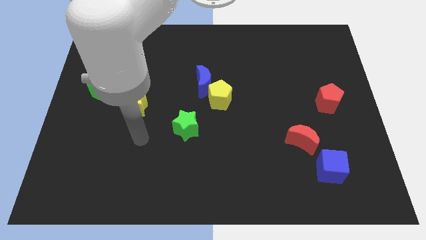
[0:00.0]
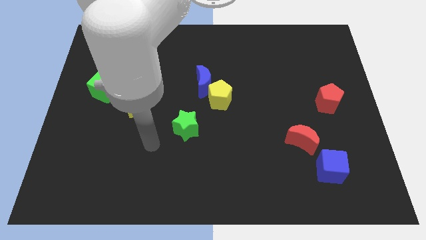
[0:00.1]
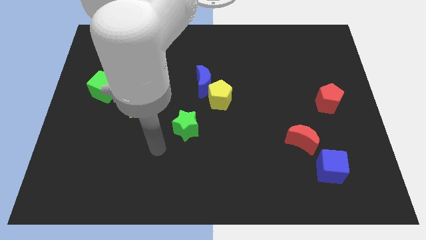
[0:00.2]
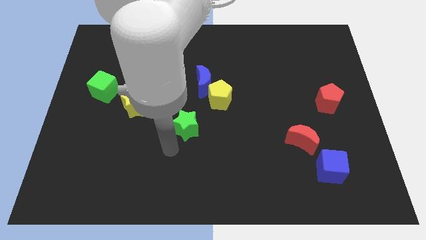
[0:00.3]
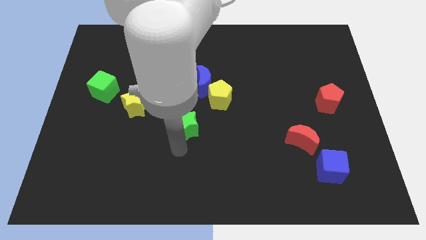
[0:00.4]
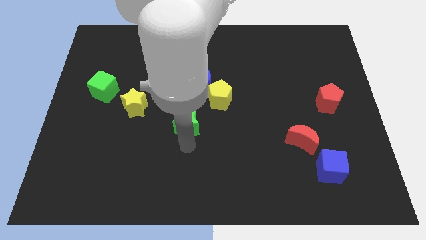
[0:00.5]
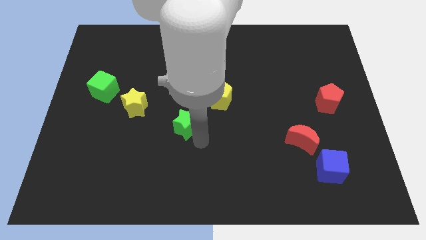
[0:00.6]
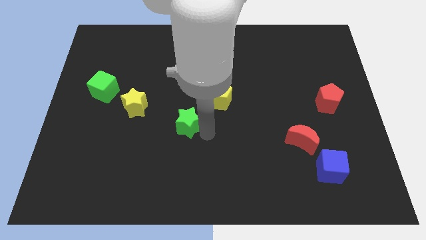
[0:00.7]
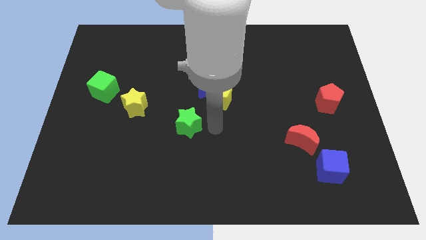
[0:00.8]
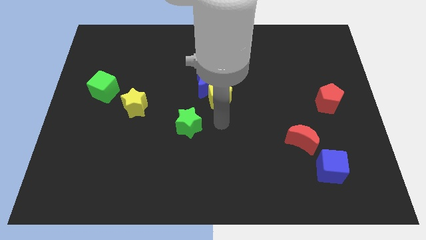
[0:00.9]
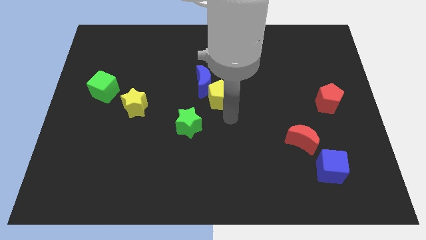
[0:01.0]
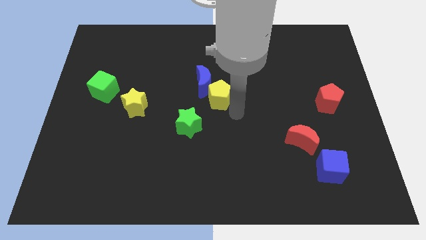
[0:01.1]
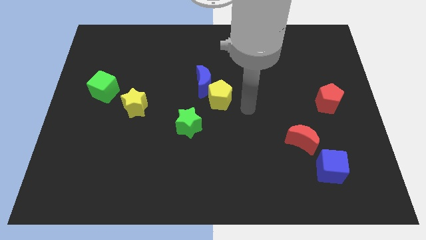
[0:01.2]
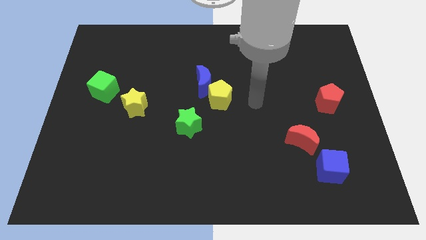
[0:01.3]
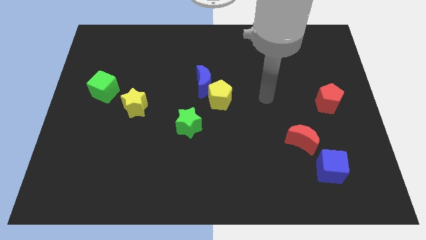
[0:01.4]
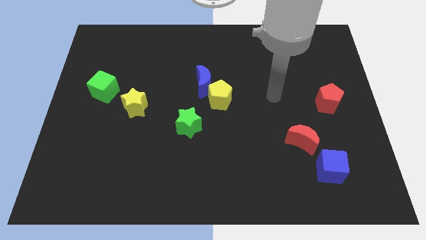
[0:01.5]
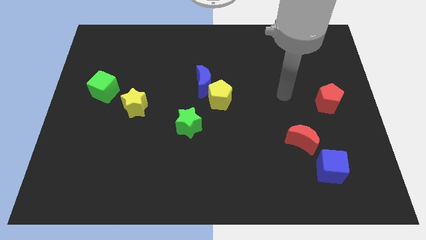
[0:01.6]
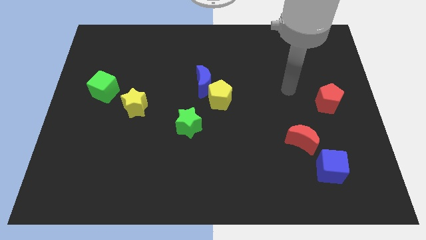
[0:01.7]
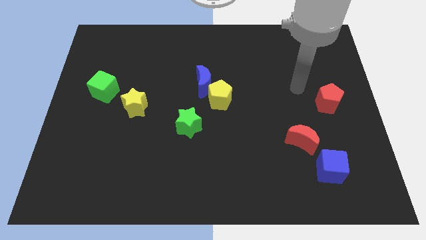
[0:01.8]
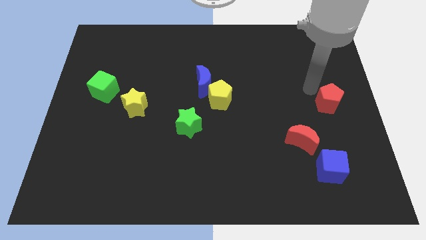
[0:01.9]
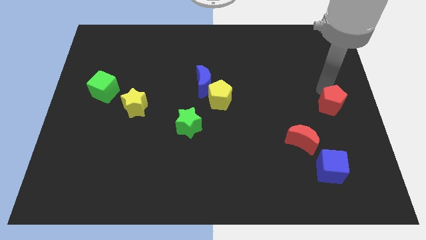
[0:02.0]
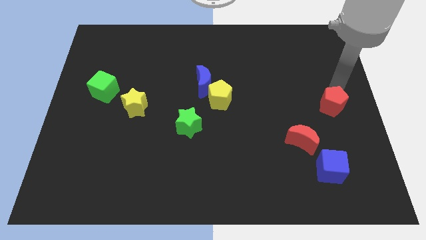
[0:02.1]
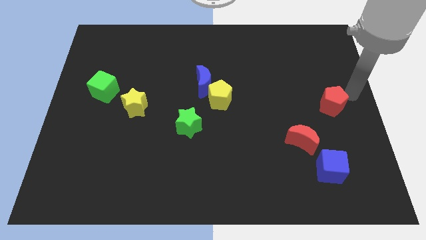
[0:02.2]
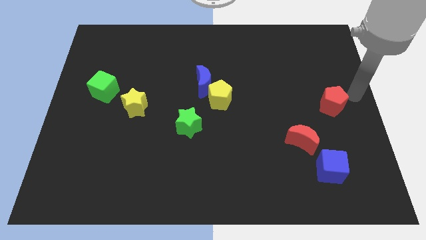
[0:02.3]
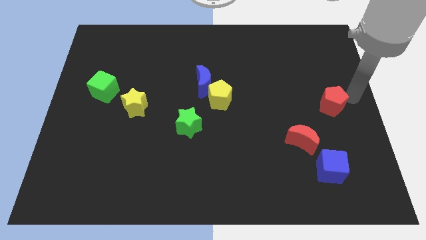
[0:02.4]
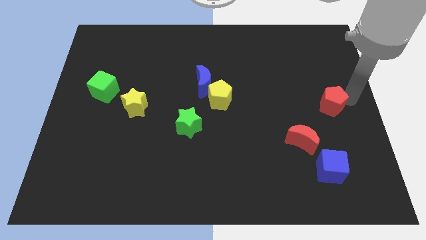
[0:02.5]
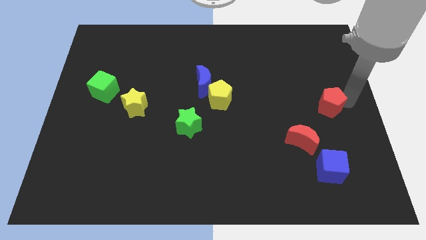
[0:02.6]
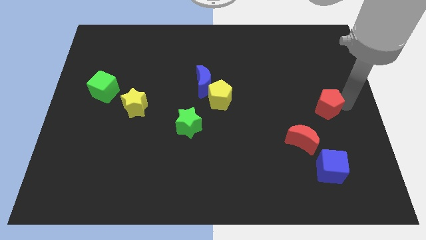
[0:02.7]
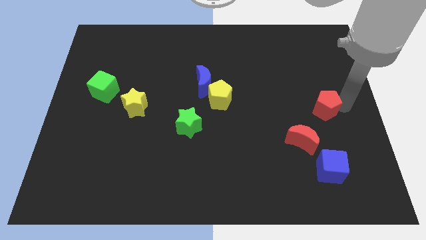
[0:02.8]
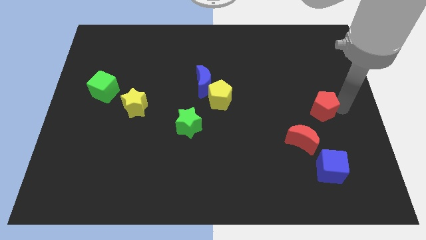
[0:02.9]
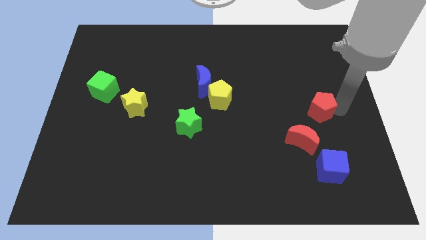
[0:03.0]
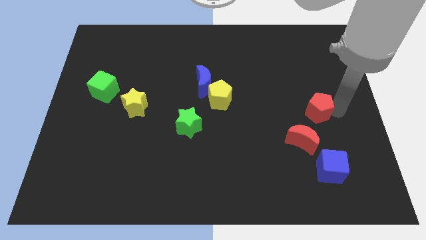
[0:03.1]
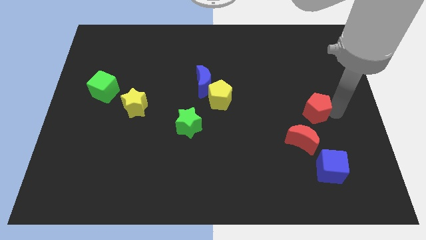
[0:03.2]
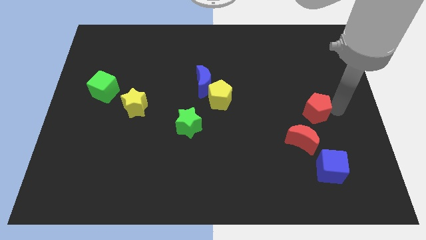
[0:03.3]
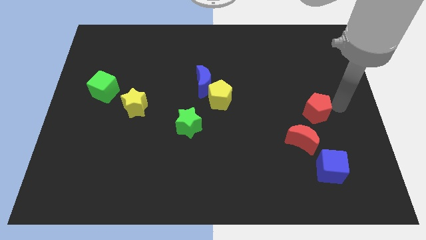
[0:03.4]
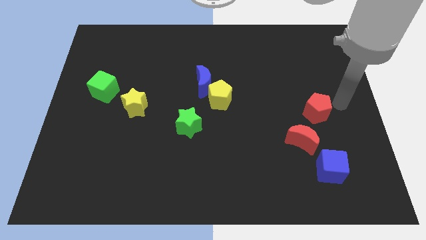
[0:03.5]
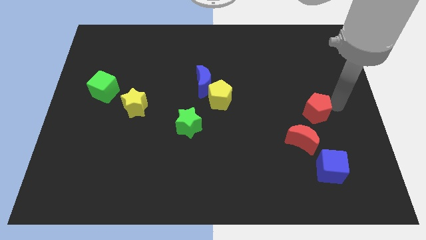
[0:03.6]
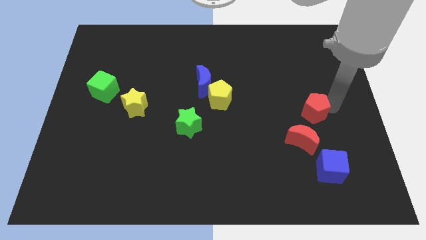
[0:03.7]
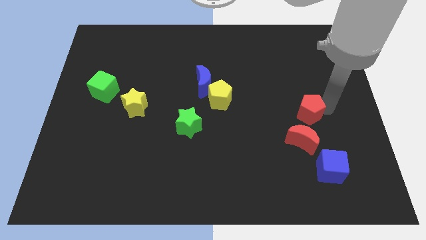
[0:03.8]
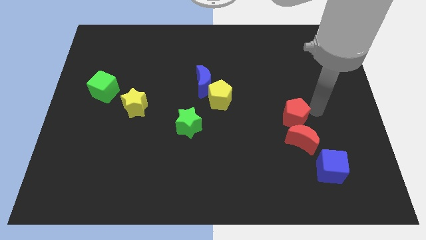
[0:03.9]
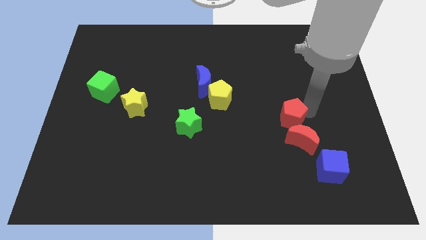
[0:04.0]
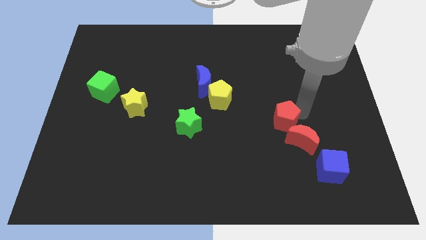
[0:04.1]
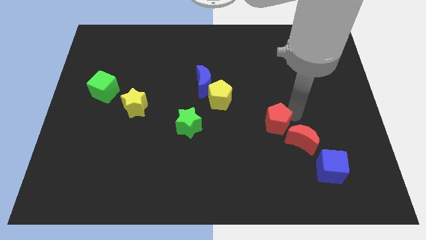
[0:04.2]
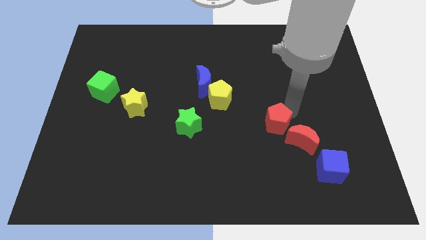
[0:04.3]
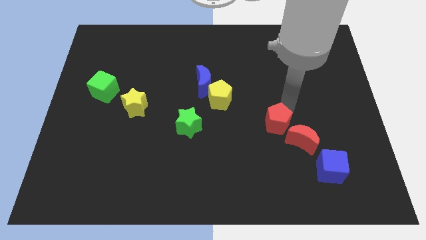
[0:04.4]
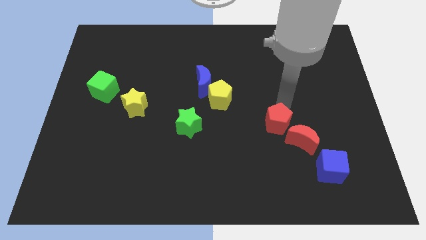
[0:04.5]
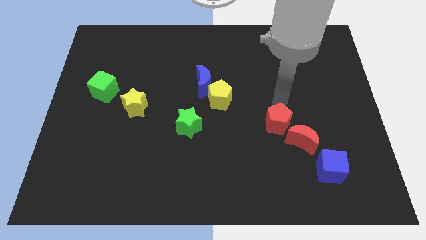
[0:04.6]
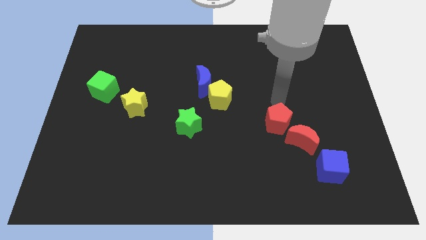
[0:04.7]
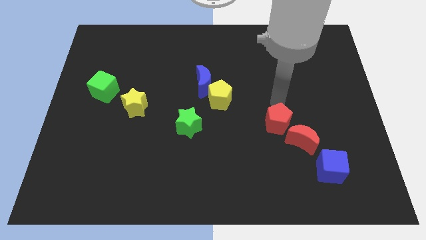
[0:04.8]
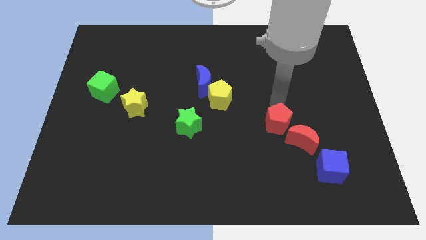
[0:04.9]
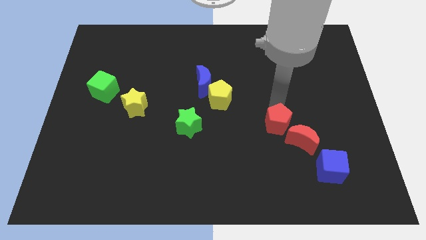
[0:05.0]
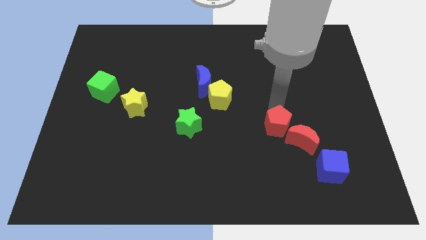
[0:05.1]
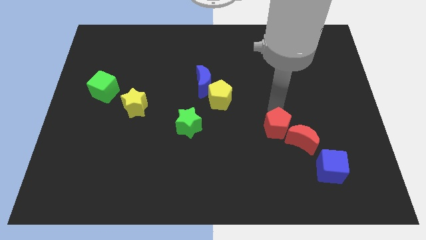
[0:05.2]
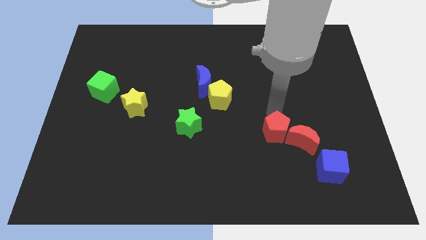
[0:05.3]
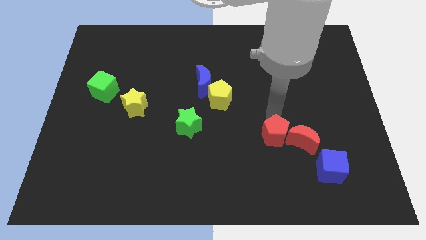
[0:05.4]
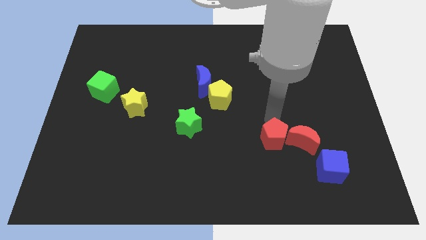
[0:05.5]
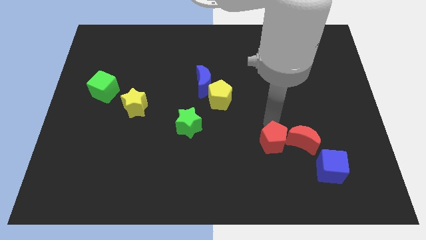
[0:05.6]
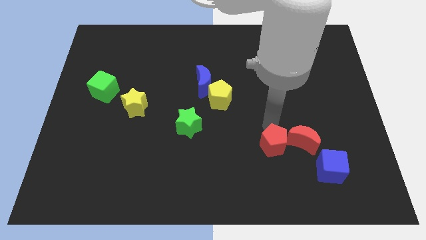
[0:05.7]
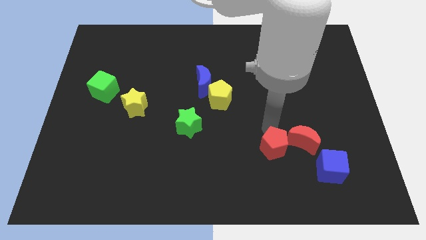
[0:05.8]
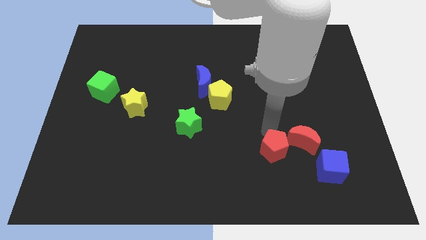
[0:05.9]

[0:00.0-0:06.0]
put the red pentagon just left of the blue cube

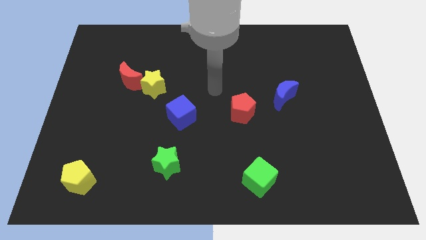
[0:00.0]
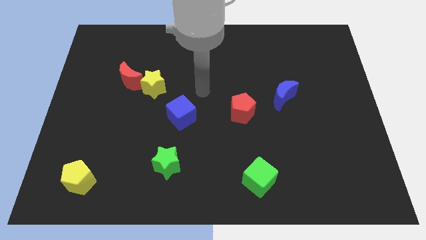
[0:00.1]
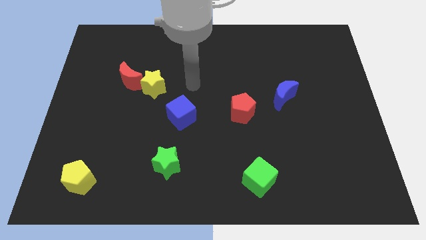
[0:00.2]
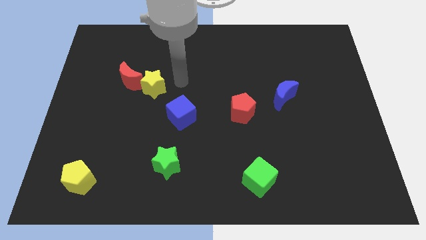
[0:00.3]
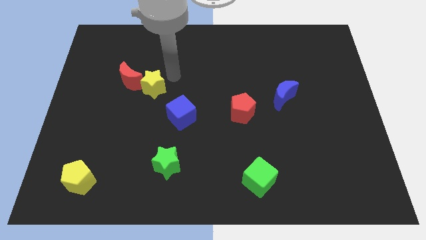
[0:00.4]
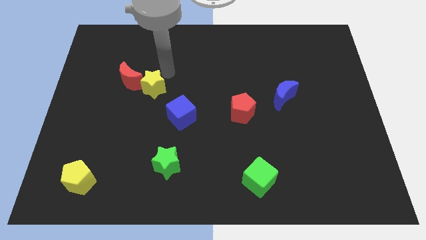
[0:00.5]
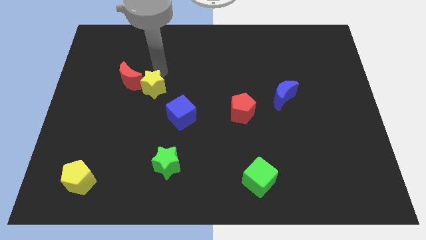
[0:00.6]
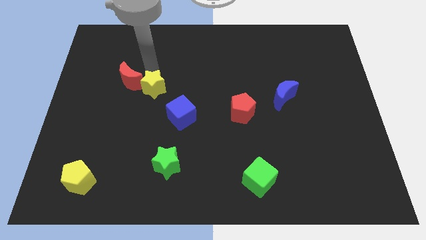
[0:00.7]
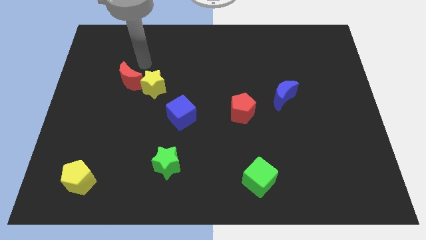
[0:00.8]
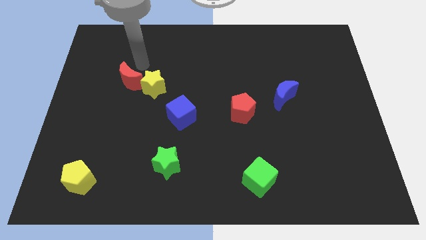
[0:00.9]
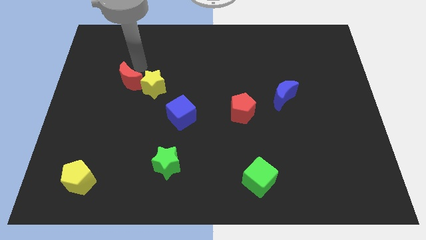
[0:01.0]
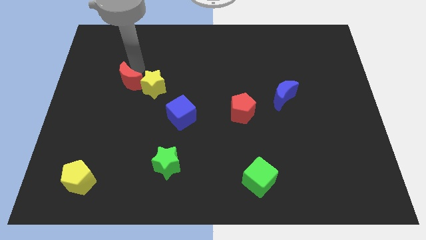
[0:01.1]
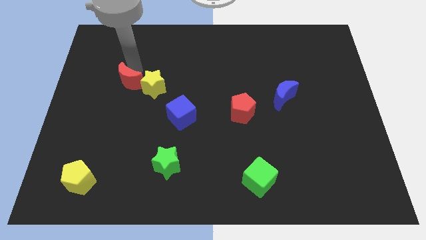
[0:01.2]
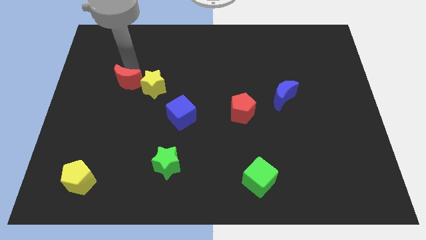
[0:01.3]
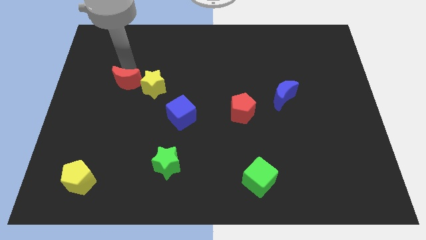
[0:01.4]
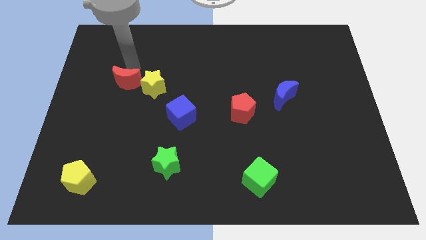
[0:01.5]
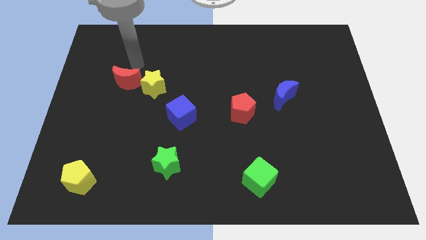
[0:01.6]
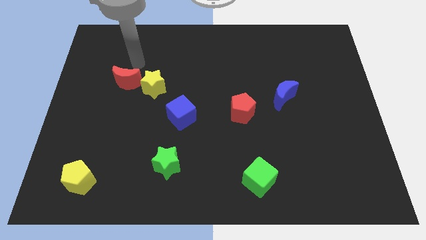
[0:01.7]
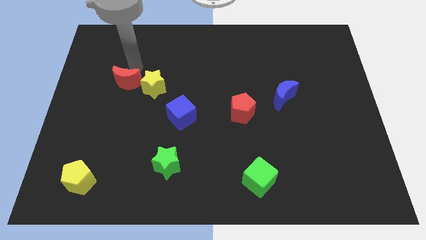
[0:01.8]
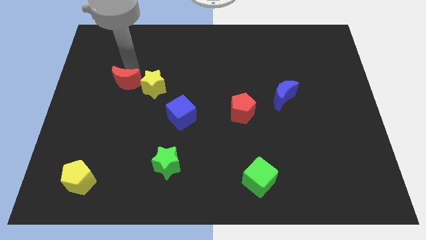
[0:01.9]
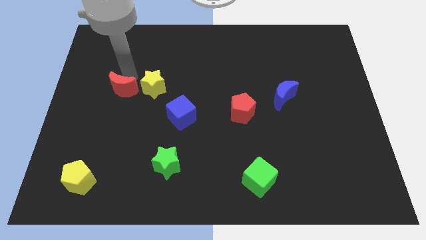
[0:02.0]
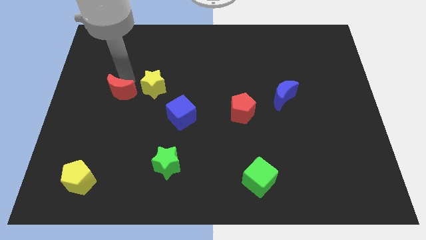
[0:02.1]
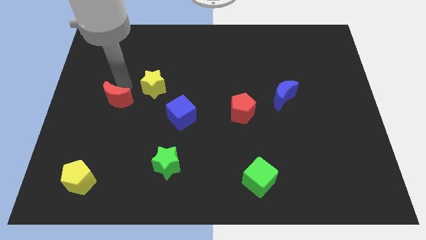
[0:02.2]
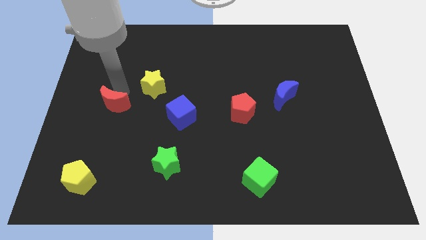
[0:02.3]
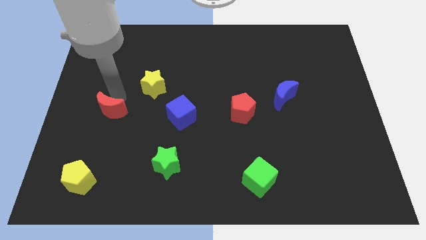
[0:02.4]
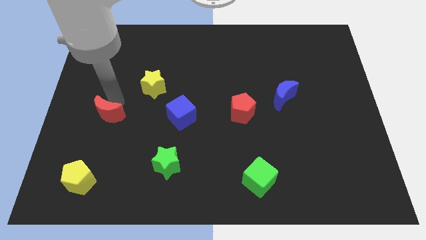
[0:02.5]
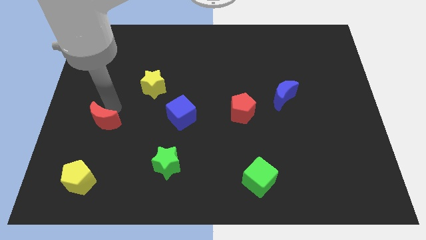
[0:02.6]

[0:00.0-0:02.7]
slide the red moon to the top side of the yellow pentagon
